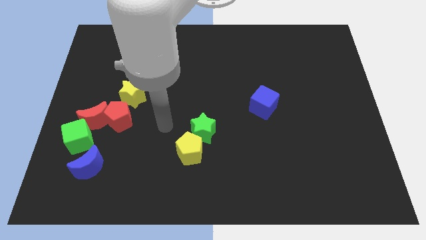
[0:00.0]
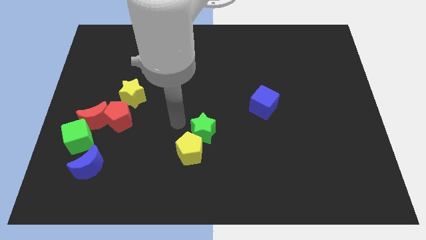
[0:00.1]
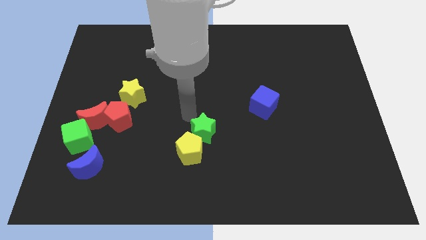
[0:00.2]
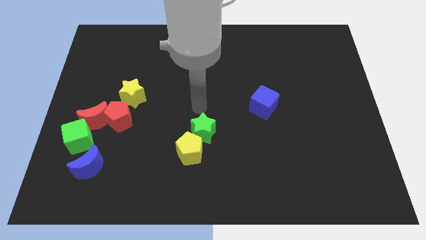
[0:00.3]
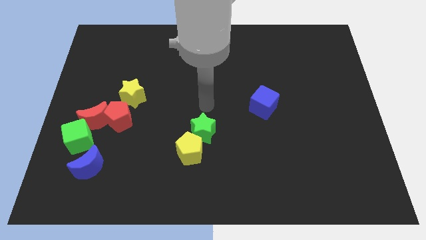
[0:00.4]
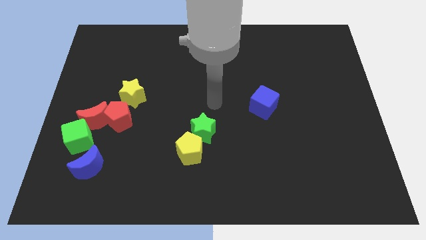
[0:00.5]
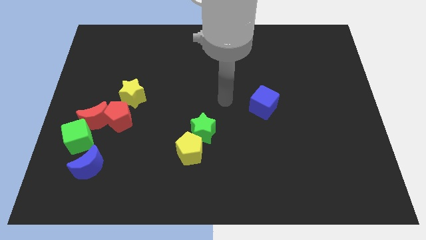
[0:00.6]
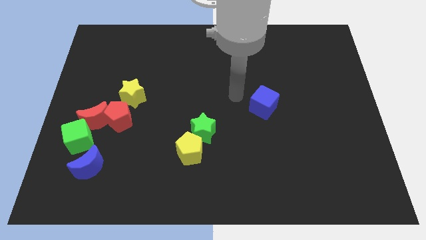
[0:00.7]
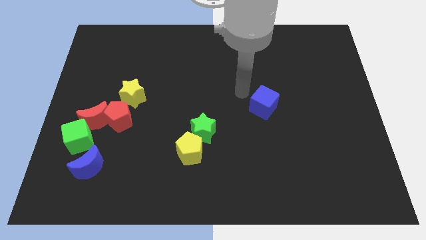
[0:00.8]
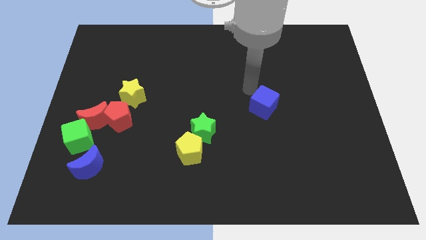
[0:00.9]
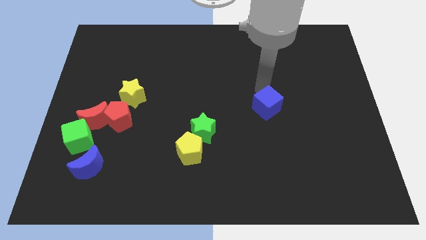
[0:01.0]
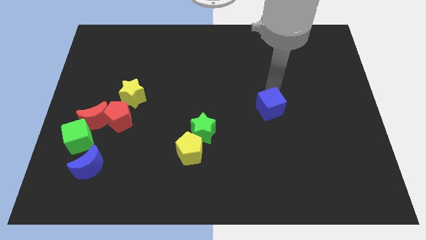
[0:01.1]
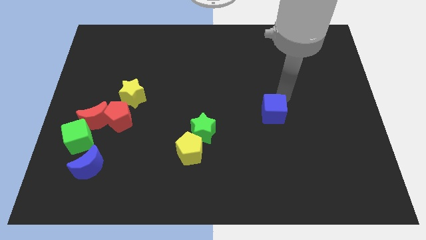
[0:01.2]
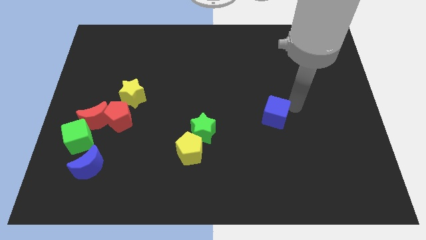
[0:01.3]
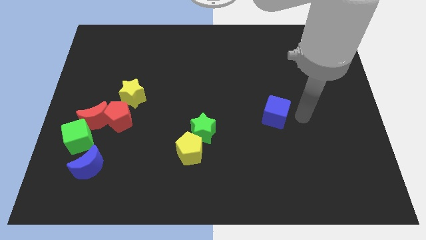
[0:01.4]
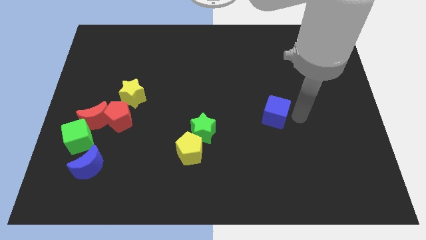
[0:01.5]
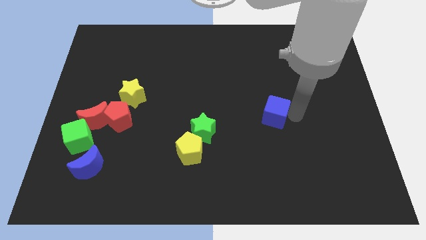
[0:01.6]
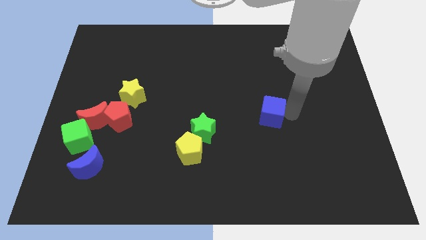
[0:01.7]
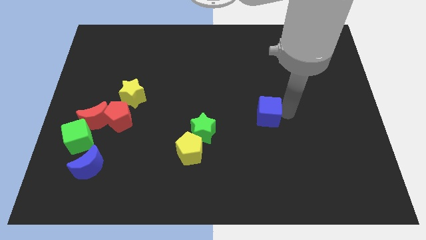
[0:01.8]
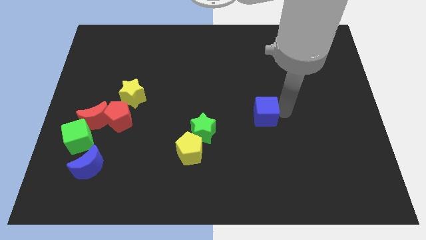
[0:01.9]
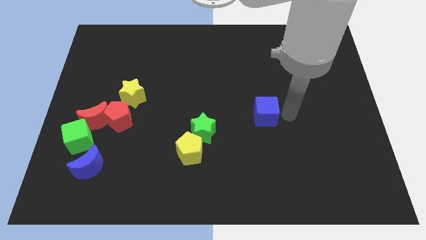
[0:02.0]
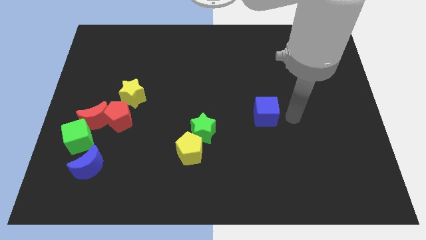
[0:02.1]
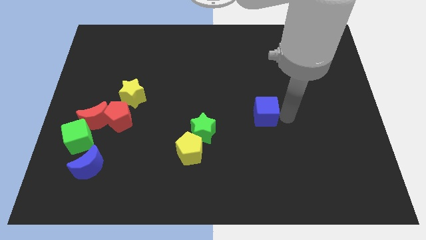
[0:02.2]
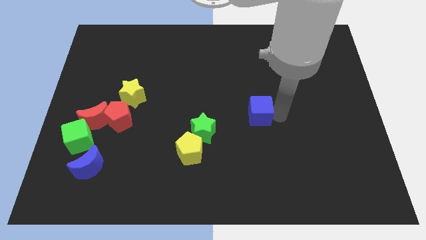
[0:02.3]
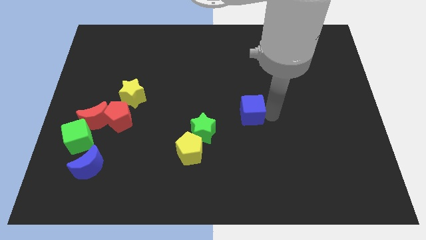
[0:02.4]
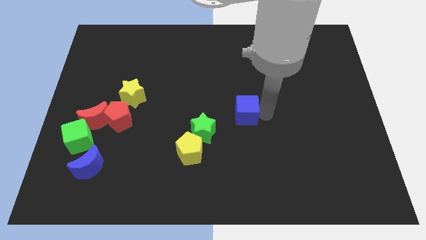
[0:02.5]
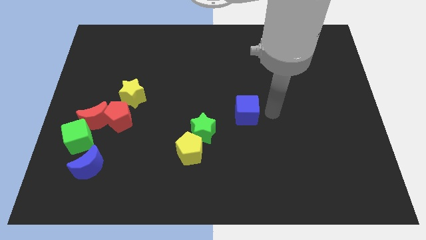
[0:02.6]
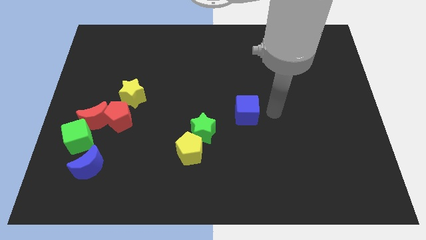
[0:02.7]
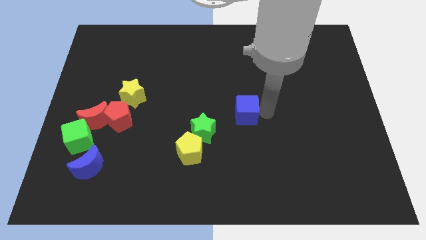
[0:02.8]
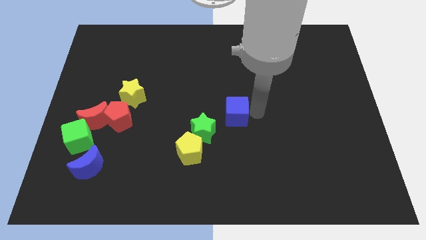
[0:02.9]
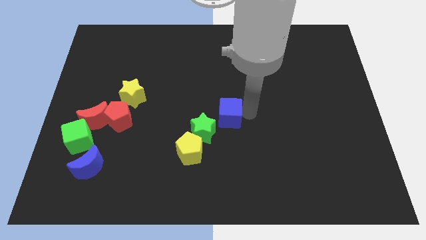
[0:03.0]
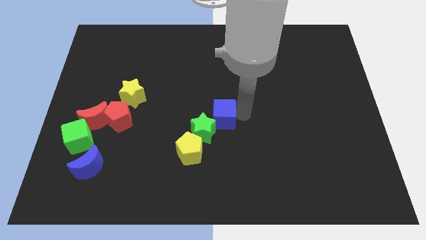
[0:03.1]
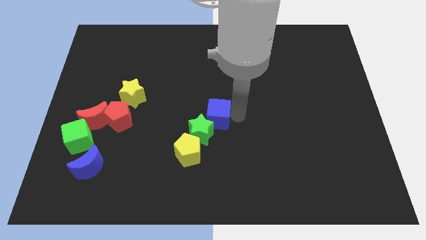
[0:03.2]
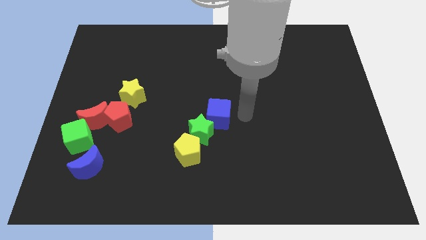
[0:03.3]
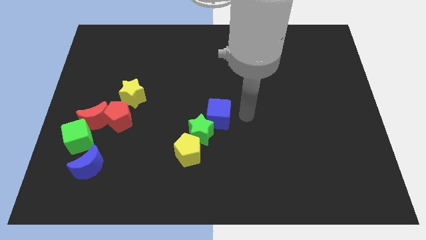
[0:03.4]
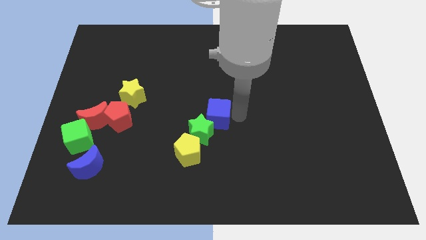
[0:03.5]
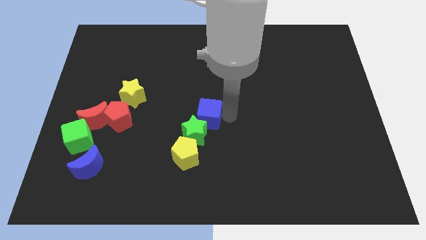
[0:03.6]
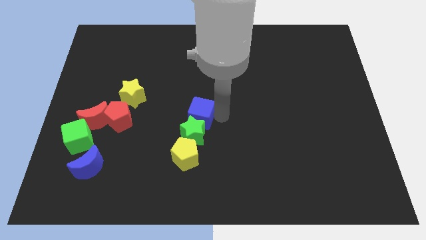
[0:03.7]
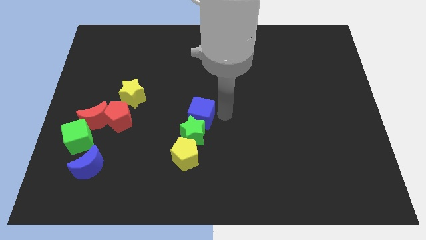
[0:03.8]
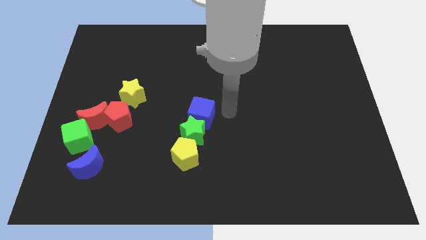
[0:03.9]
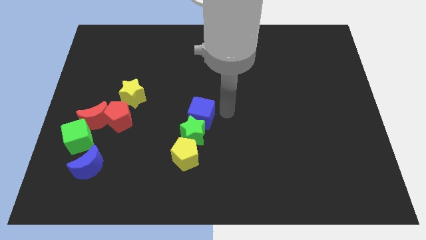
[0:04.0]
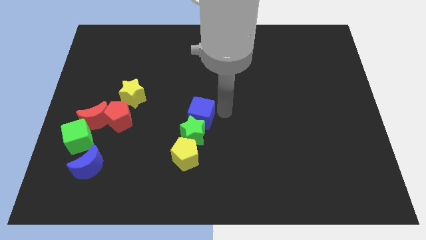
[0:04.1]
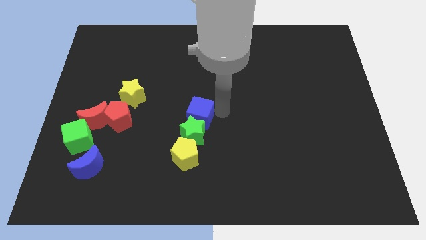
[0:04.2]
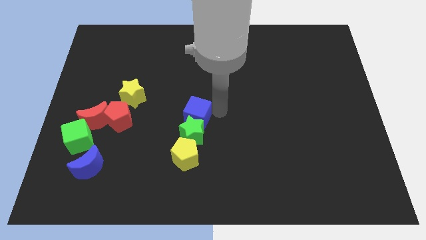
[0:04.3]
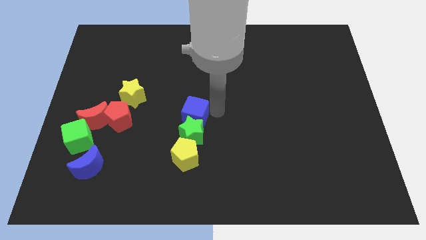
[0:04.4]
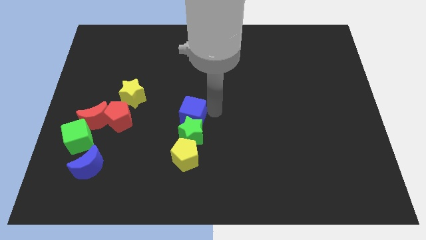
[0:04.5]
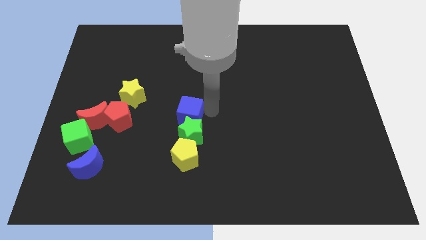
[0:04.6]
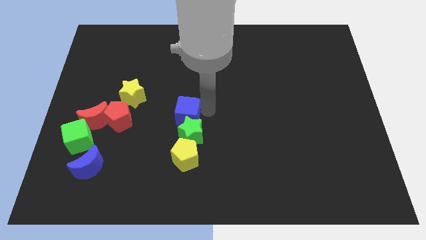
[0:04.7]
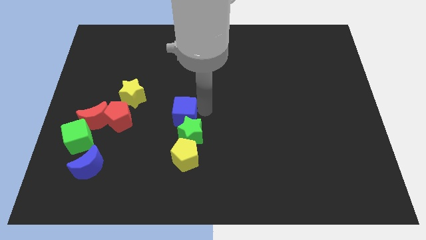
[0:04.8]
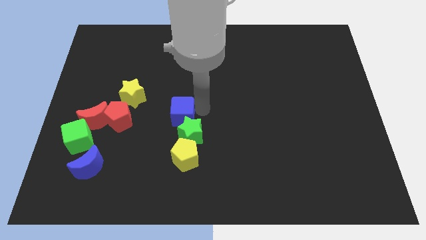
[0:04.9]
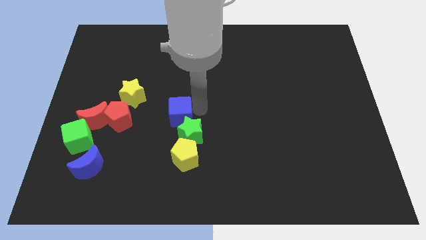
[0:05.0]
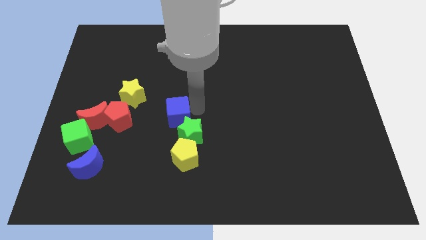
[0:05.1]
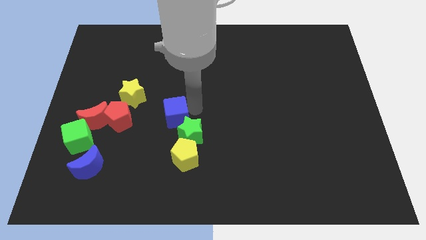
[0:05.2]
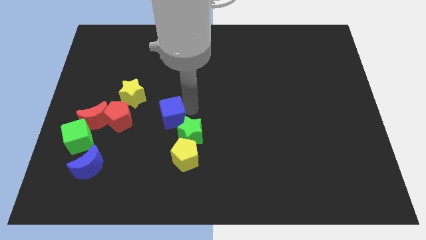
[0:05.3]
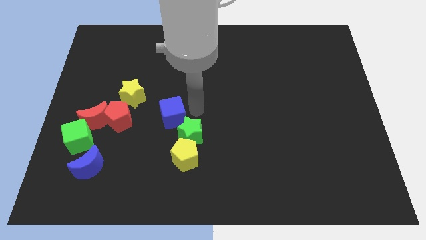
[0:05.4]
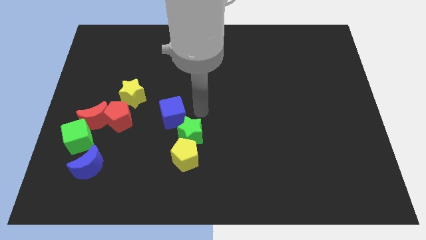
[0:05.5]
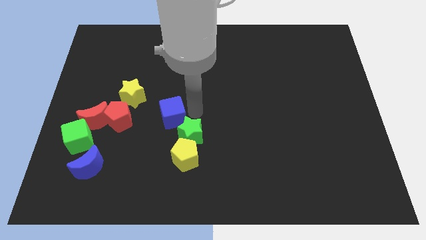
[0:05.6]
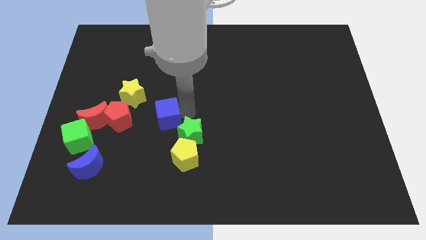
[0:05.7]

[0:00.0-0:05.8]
slide the blue cube to the right of the red moon

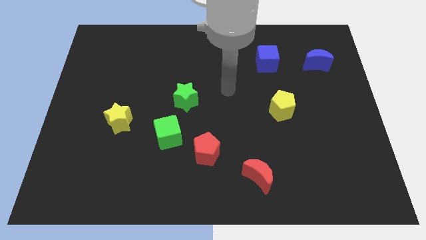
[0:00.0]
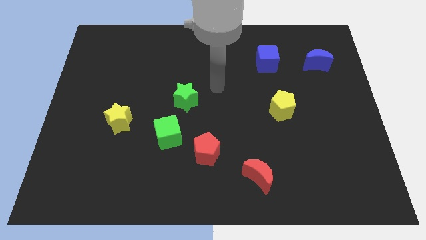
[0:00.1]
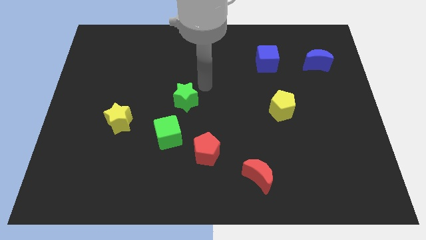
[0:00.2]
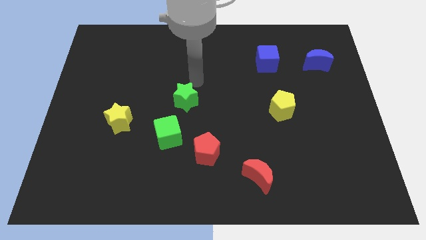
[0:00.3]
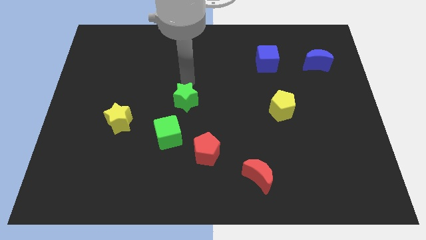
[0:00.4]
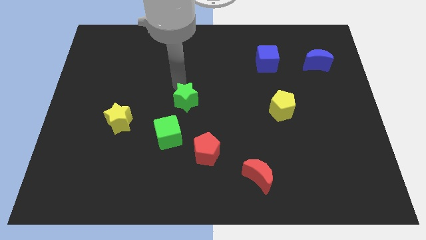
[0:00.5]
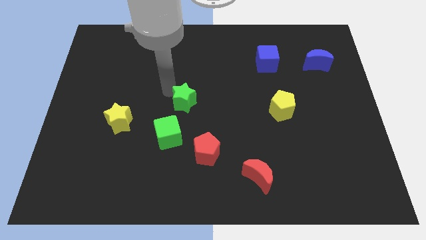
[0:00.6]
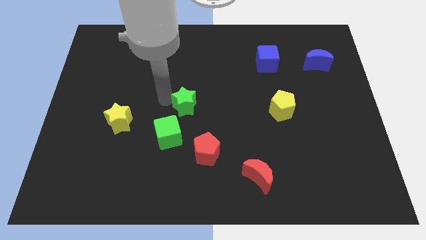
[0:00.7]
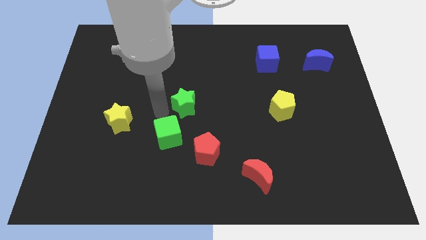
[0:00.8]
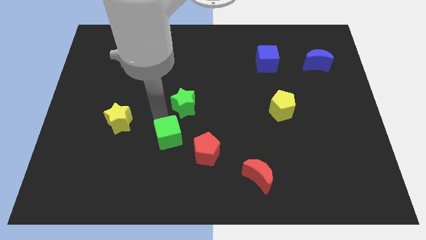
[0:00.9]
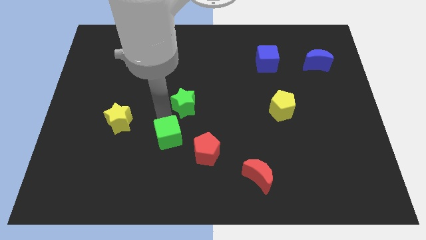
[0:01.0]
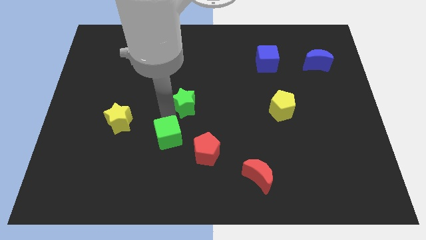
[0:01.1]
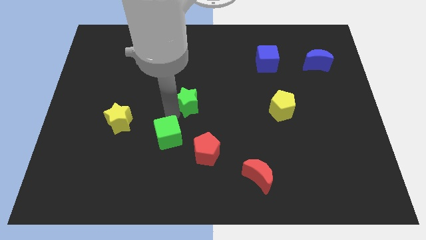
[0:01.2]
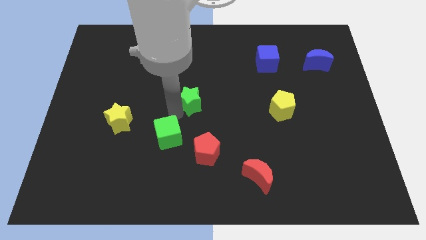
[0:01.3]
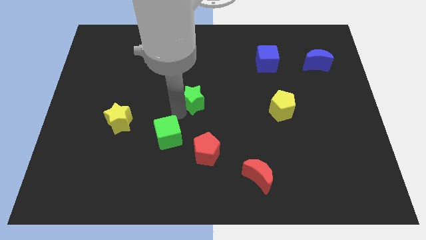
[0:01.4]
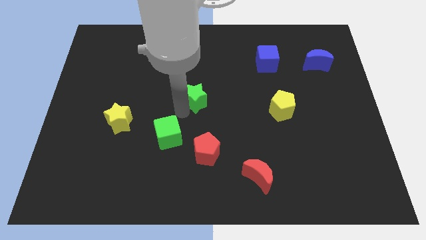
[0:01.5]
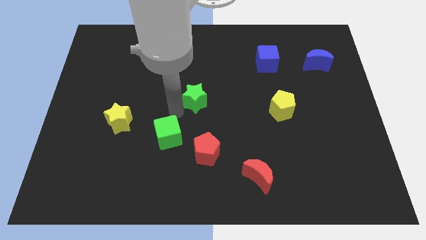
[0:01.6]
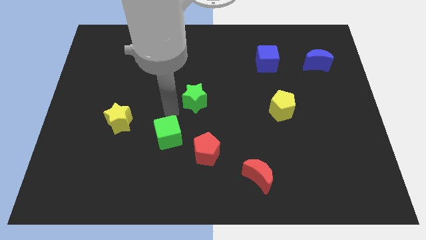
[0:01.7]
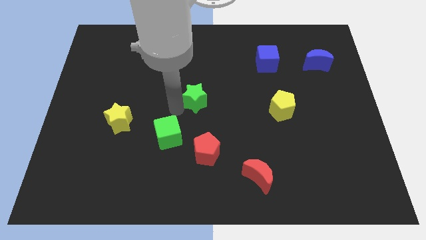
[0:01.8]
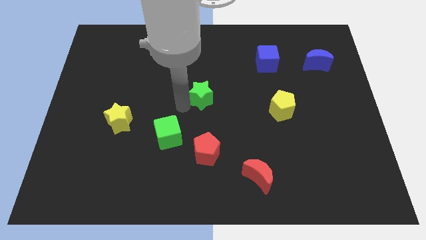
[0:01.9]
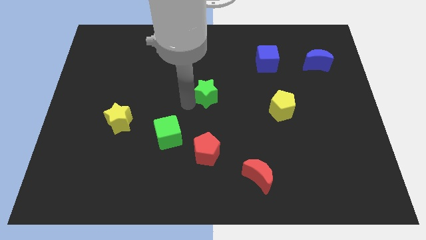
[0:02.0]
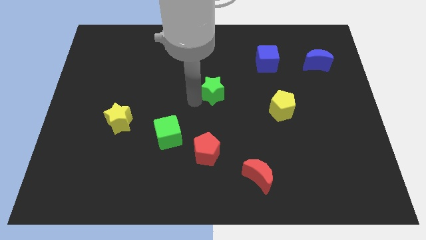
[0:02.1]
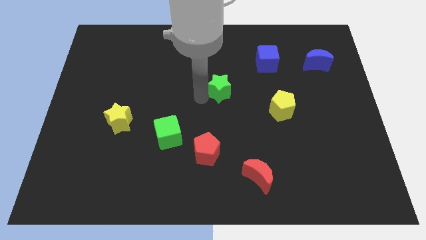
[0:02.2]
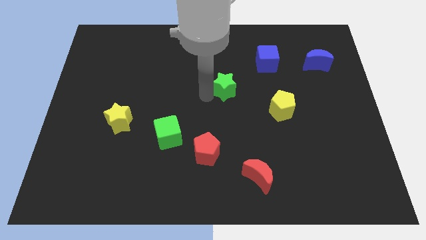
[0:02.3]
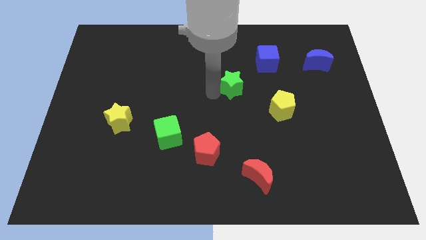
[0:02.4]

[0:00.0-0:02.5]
push the green star to the bottom left side of the blue cube
